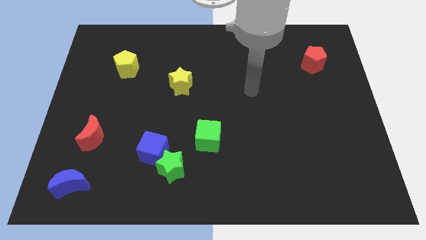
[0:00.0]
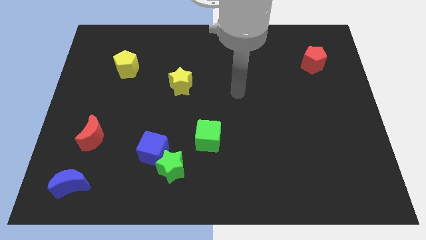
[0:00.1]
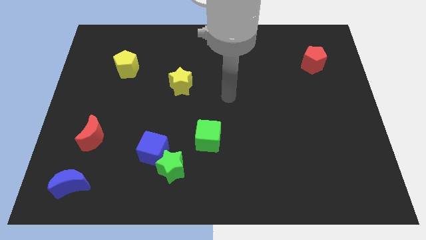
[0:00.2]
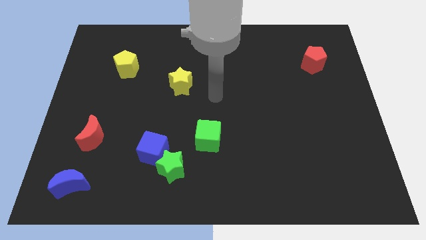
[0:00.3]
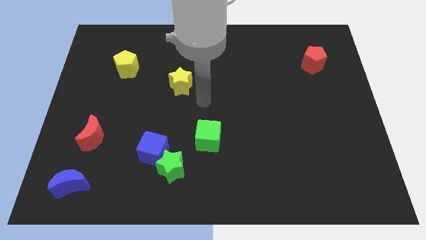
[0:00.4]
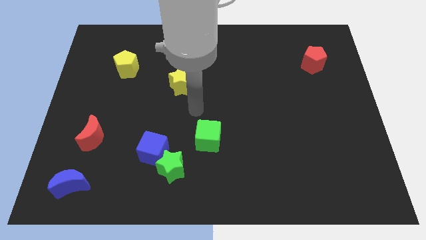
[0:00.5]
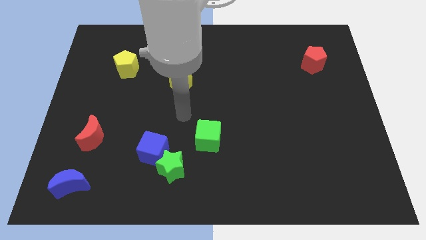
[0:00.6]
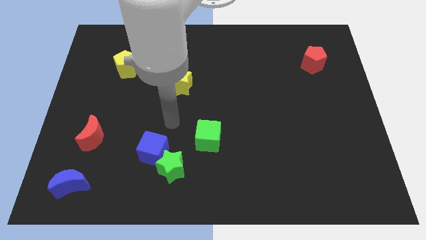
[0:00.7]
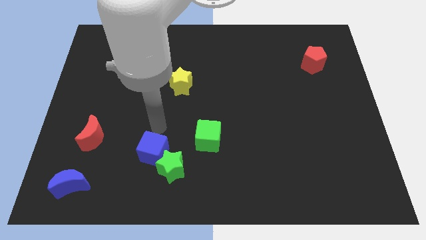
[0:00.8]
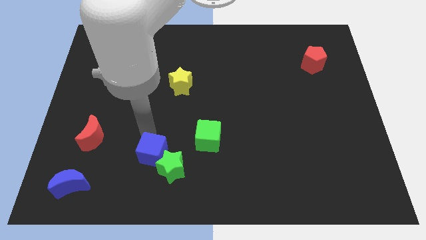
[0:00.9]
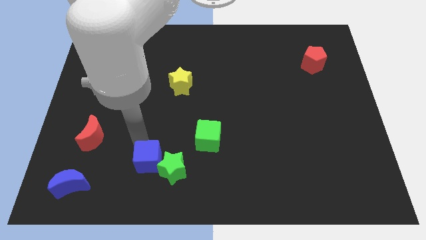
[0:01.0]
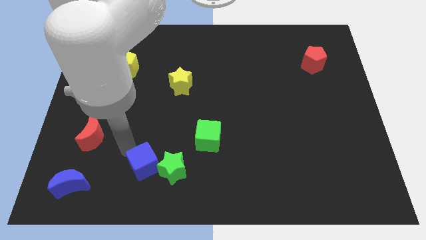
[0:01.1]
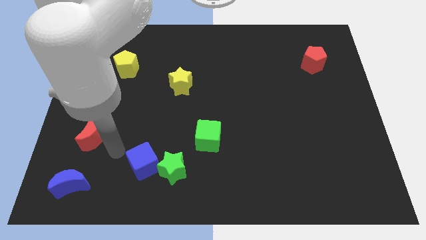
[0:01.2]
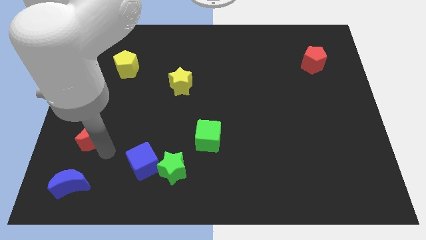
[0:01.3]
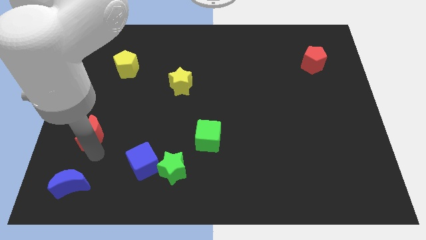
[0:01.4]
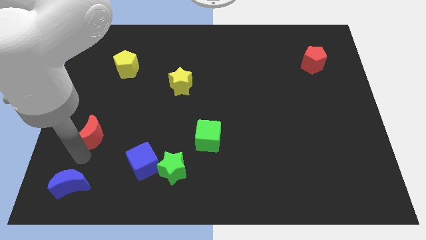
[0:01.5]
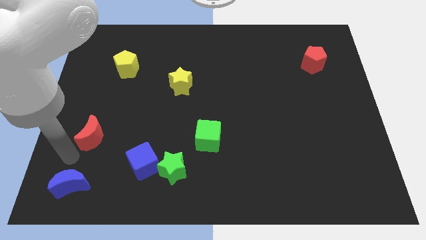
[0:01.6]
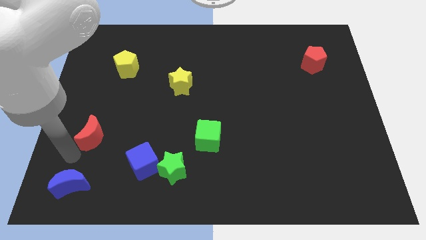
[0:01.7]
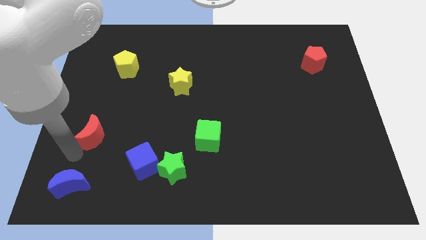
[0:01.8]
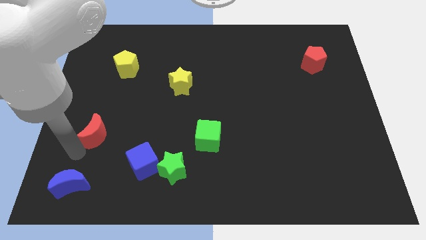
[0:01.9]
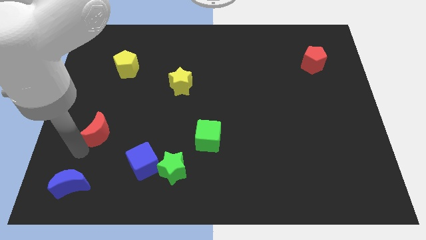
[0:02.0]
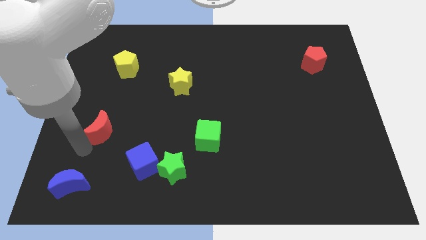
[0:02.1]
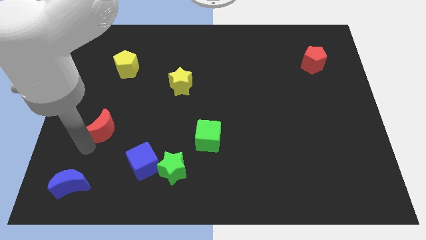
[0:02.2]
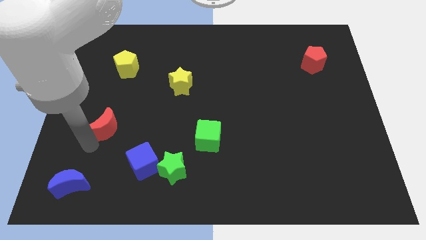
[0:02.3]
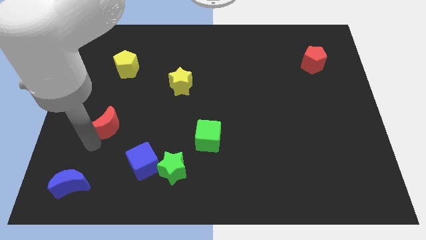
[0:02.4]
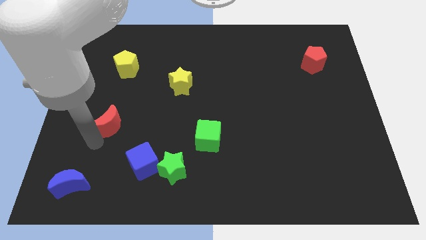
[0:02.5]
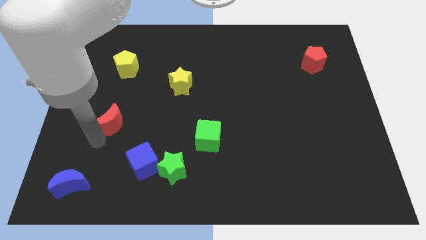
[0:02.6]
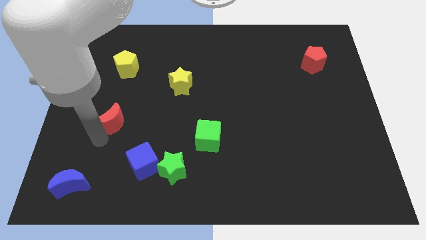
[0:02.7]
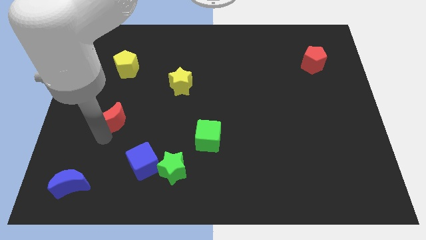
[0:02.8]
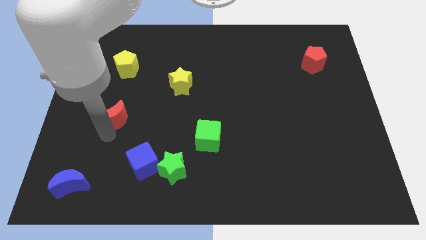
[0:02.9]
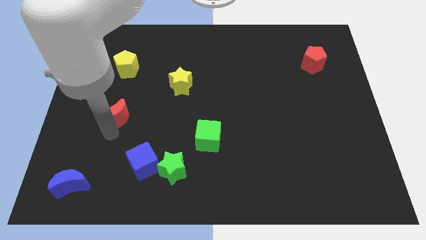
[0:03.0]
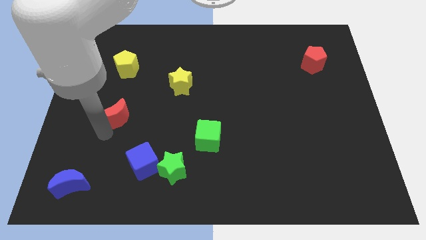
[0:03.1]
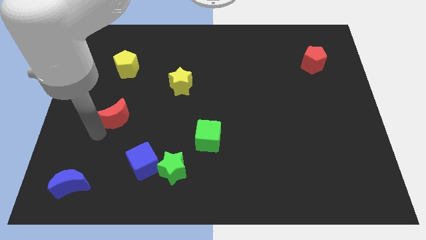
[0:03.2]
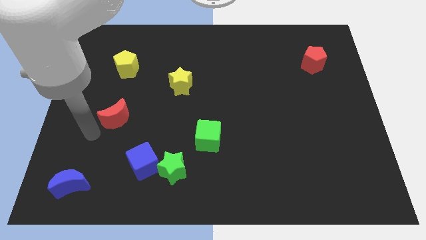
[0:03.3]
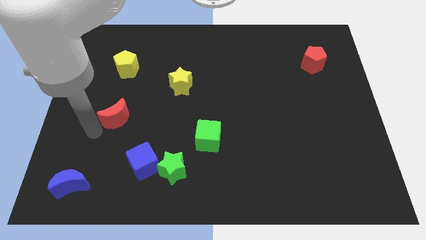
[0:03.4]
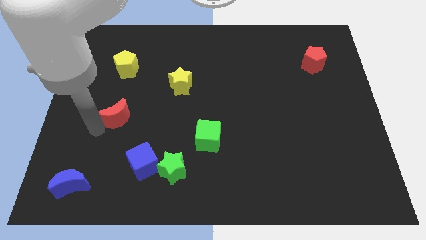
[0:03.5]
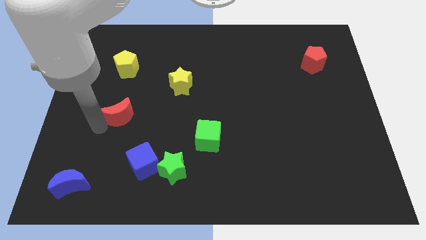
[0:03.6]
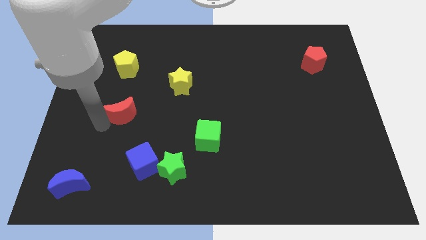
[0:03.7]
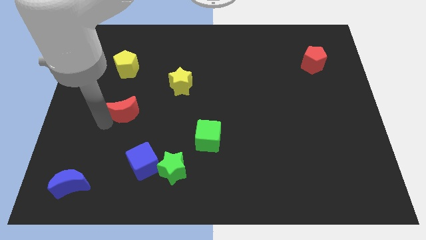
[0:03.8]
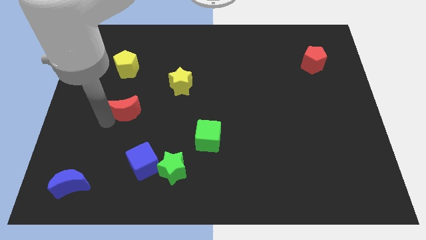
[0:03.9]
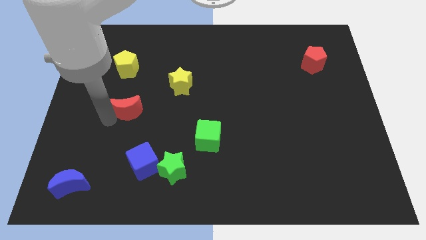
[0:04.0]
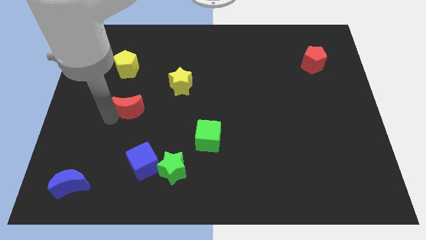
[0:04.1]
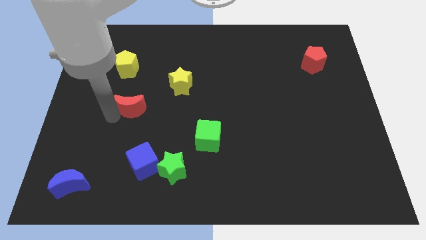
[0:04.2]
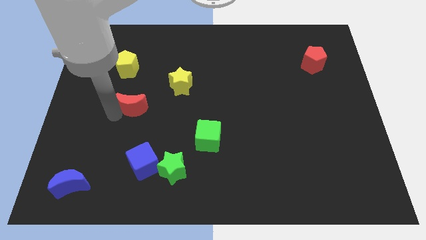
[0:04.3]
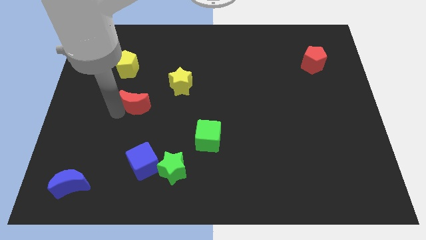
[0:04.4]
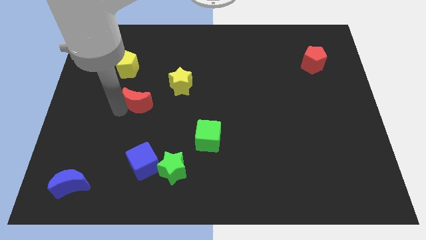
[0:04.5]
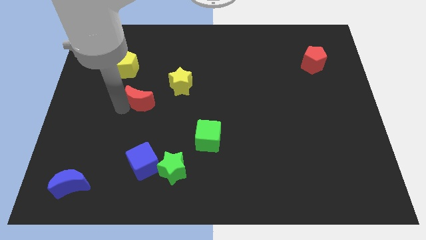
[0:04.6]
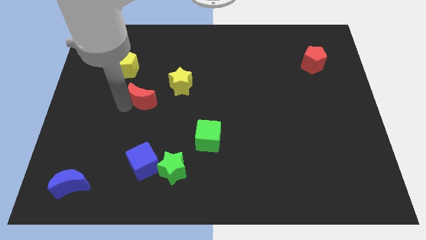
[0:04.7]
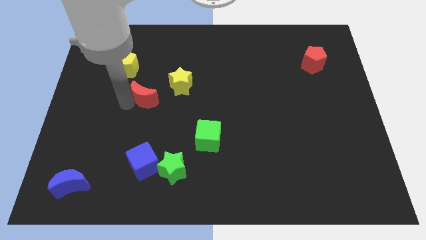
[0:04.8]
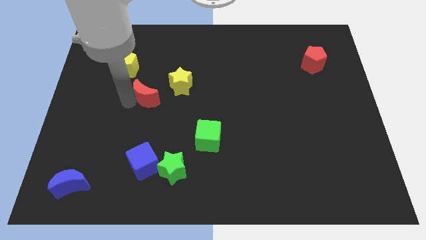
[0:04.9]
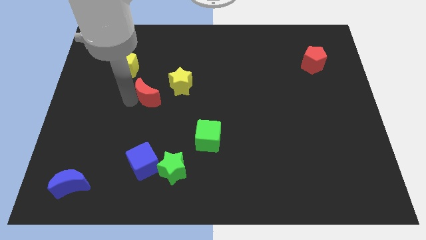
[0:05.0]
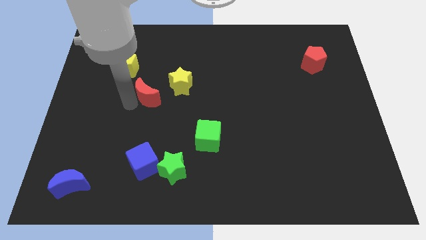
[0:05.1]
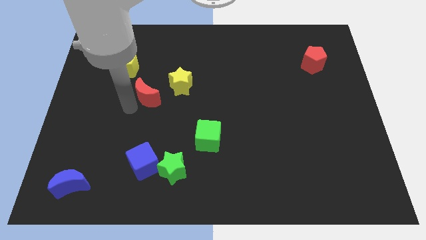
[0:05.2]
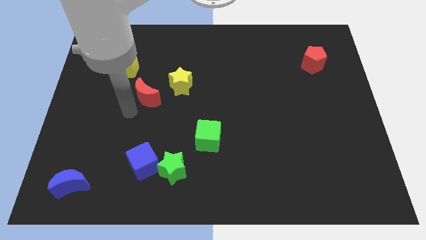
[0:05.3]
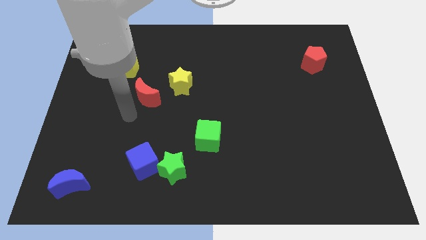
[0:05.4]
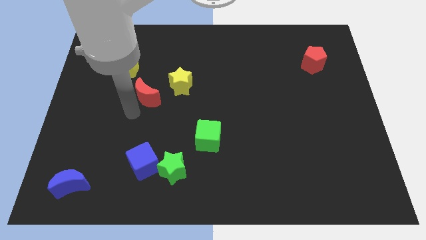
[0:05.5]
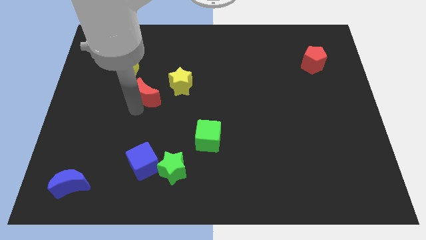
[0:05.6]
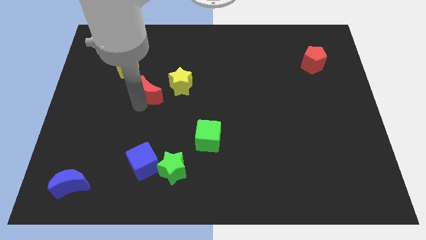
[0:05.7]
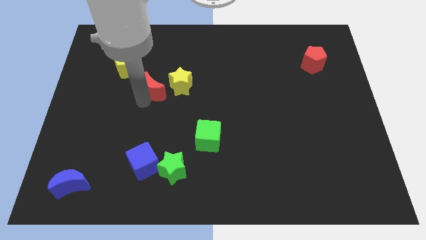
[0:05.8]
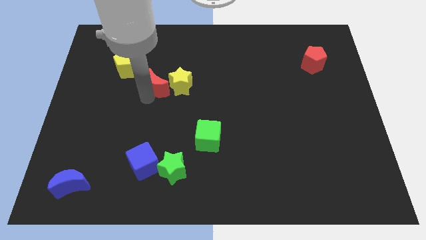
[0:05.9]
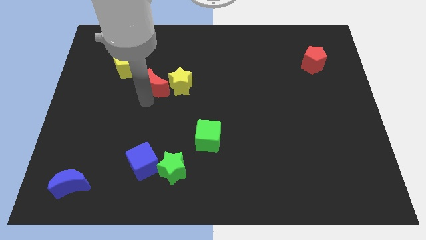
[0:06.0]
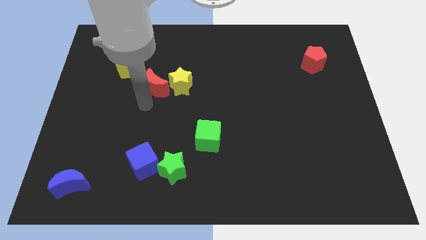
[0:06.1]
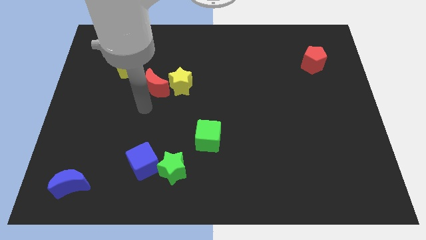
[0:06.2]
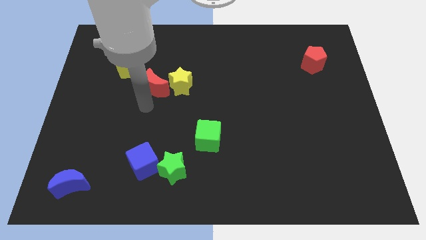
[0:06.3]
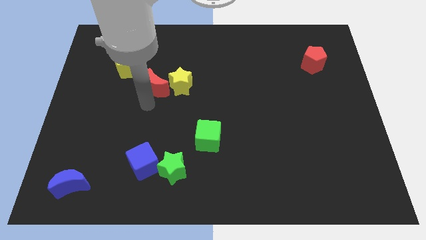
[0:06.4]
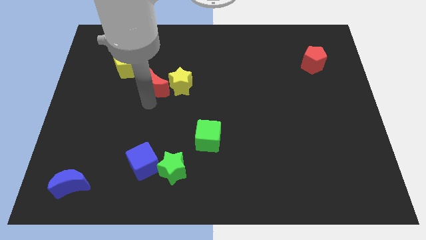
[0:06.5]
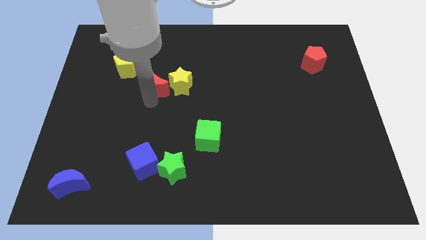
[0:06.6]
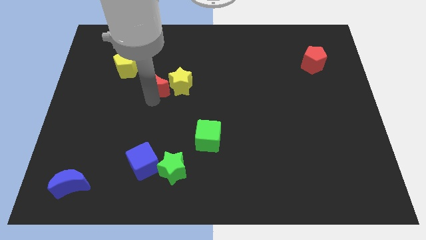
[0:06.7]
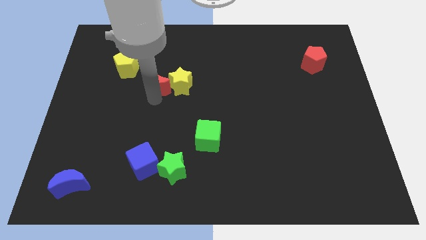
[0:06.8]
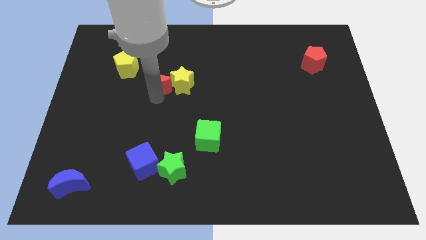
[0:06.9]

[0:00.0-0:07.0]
move the red moon up and then to the right

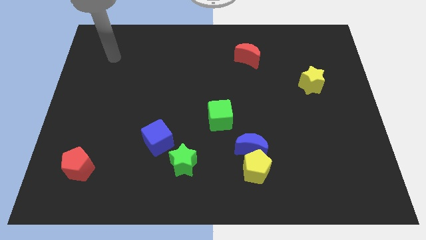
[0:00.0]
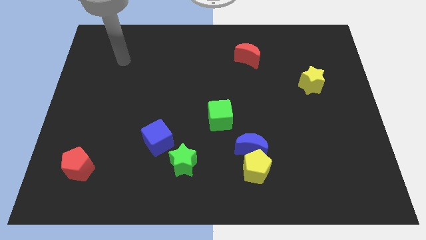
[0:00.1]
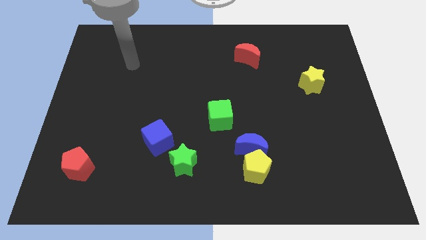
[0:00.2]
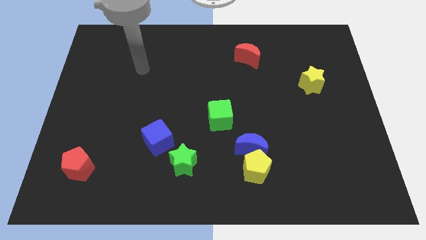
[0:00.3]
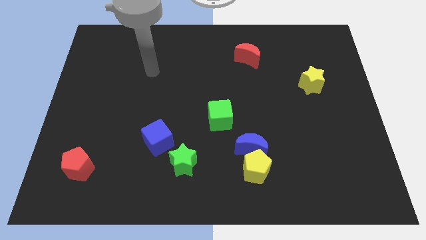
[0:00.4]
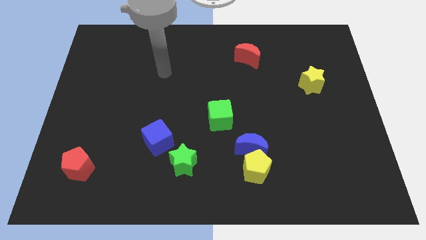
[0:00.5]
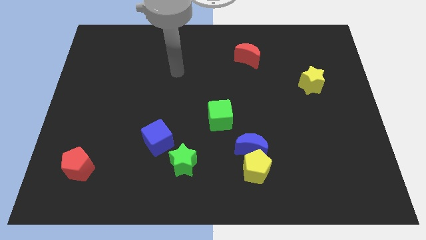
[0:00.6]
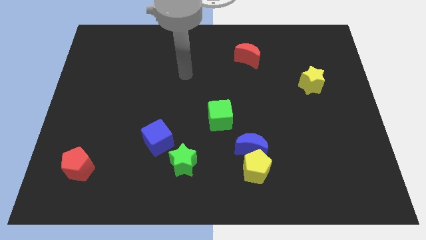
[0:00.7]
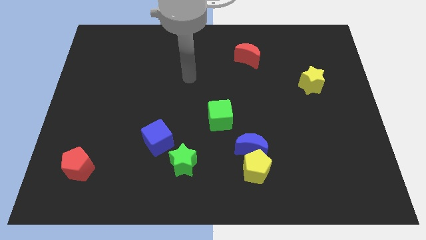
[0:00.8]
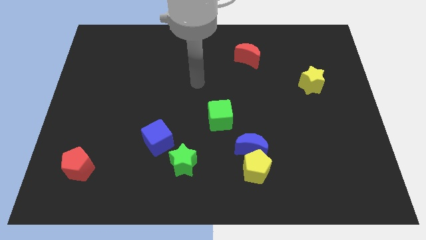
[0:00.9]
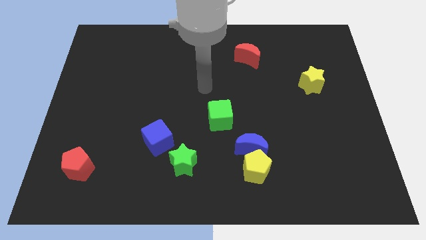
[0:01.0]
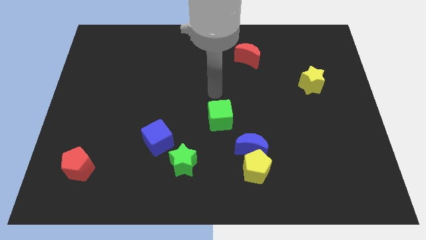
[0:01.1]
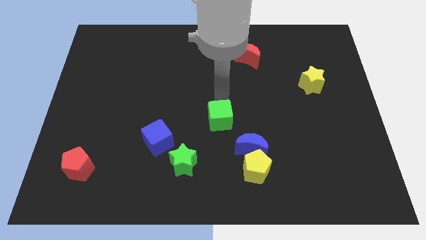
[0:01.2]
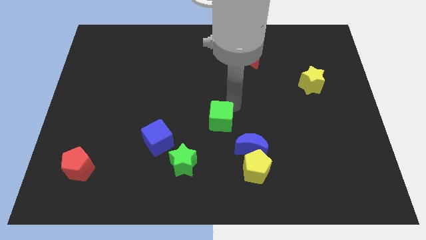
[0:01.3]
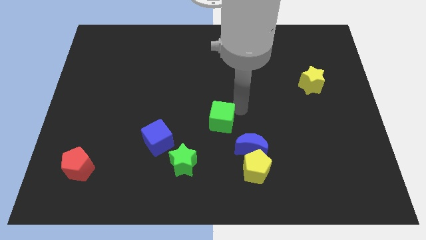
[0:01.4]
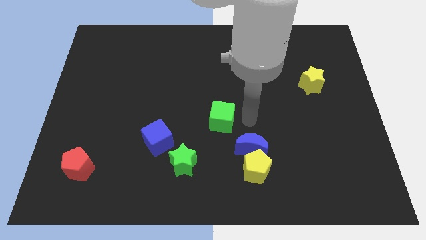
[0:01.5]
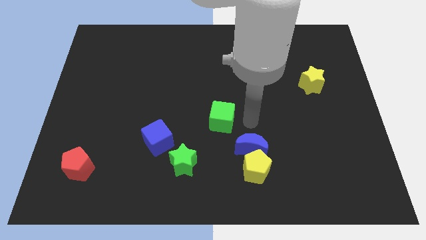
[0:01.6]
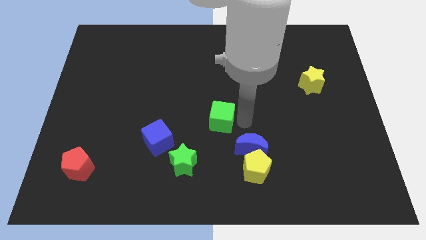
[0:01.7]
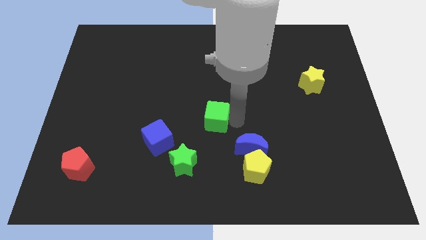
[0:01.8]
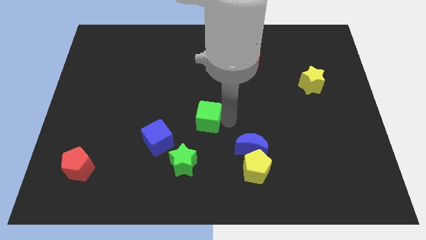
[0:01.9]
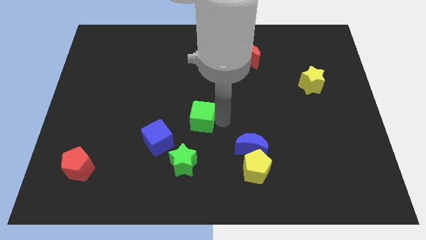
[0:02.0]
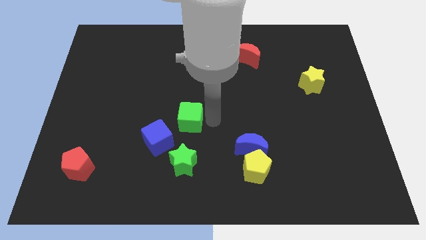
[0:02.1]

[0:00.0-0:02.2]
slide the green cube left a little
